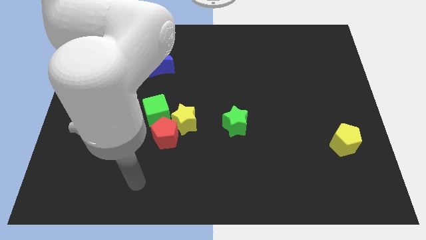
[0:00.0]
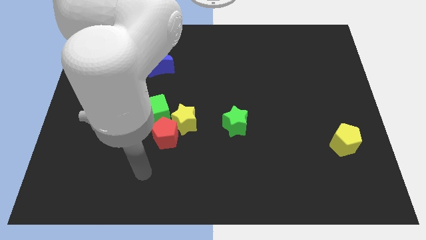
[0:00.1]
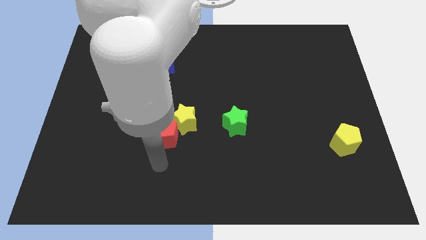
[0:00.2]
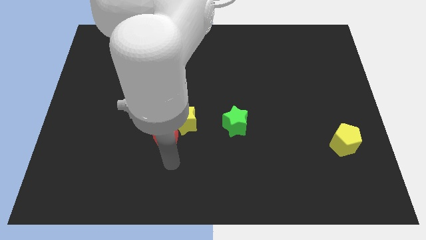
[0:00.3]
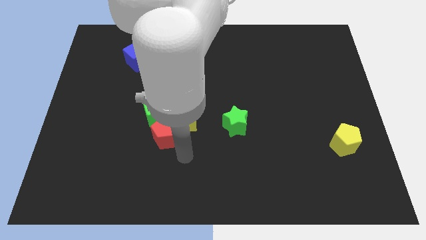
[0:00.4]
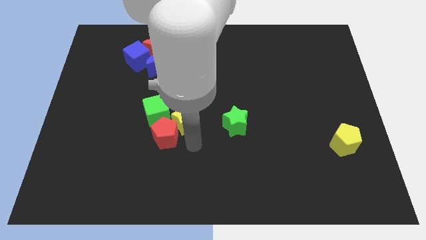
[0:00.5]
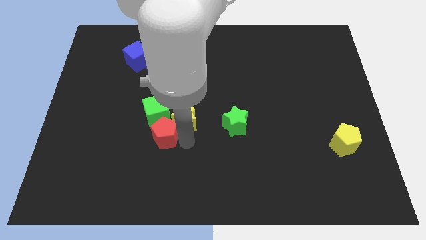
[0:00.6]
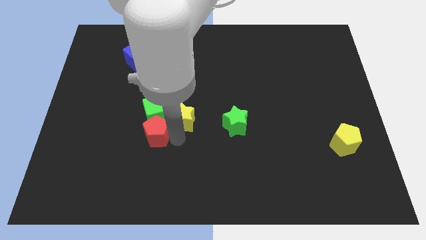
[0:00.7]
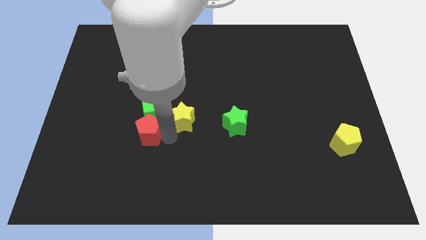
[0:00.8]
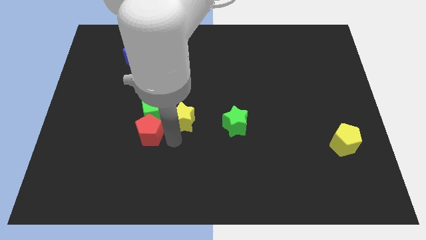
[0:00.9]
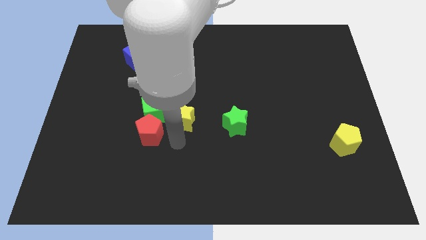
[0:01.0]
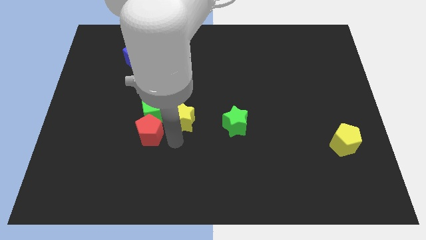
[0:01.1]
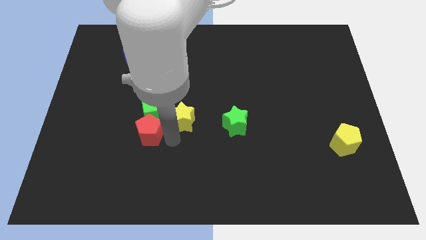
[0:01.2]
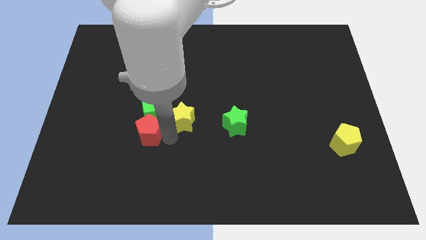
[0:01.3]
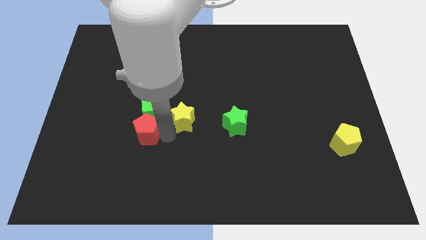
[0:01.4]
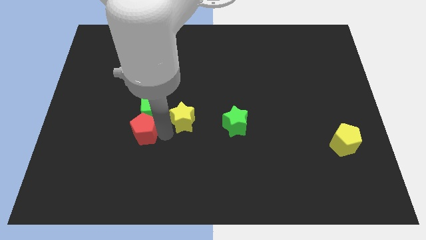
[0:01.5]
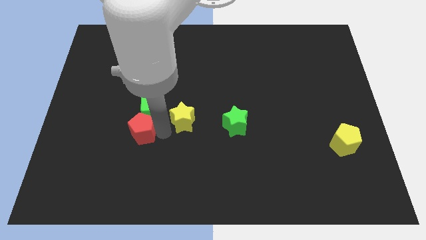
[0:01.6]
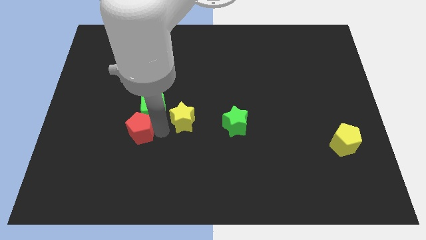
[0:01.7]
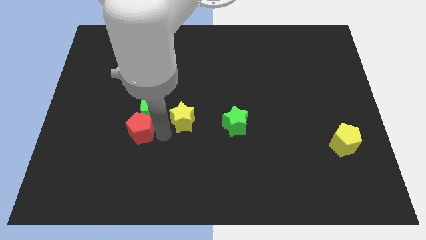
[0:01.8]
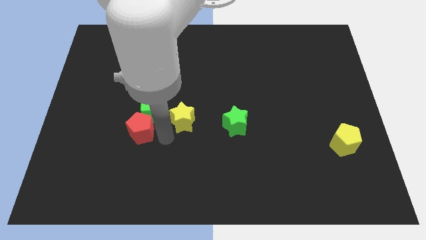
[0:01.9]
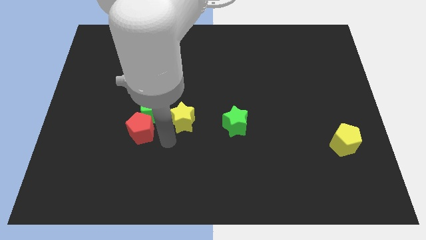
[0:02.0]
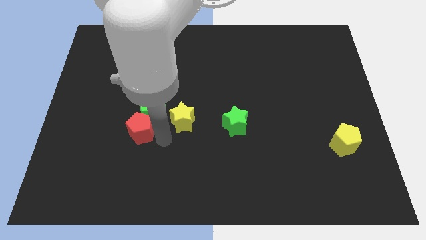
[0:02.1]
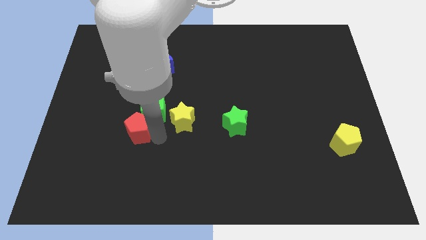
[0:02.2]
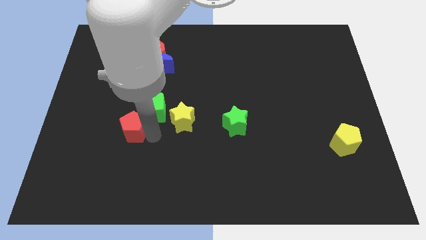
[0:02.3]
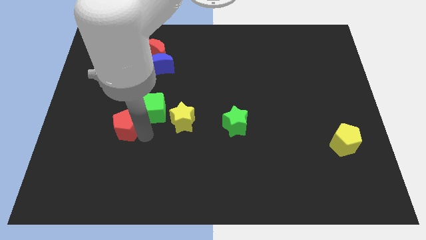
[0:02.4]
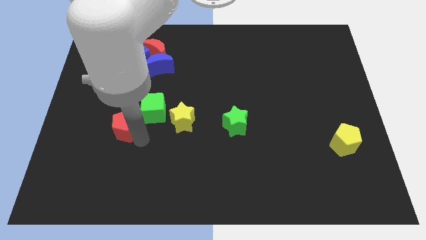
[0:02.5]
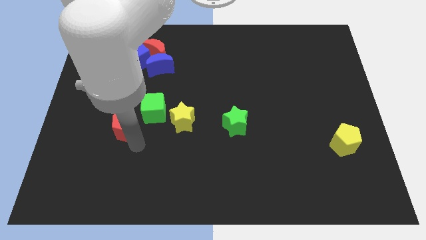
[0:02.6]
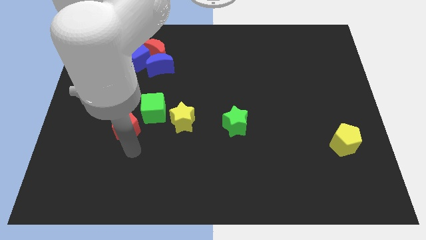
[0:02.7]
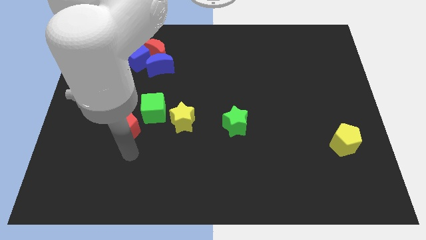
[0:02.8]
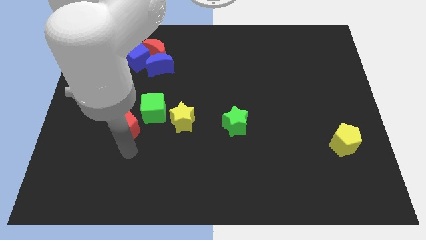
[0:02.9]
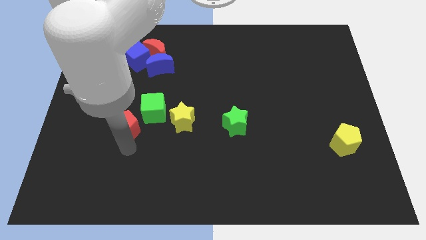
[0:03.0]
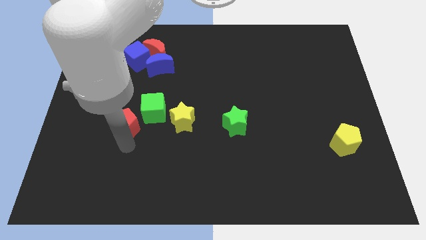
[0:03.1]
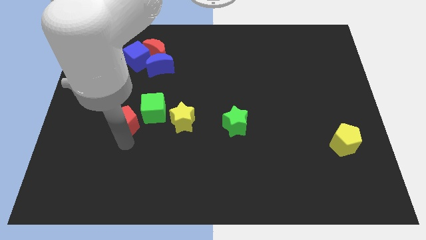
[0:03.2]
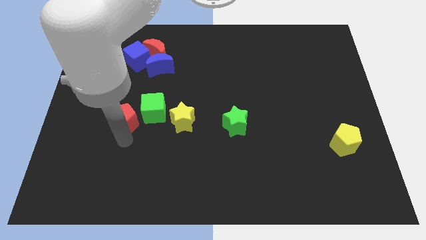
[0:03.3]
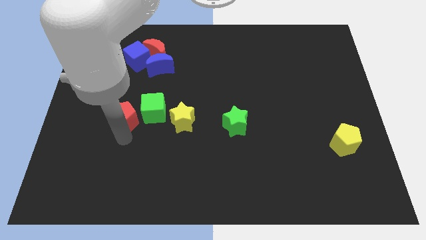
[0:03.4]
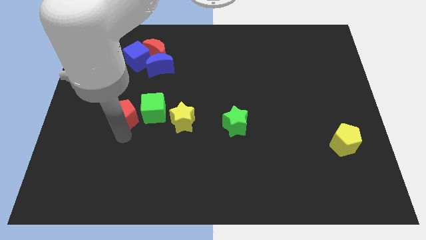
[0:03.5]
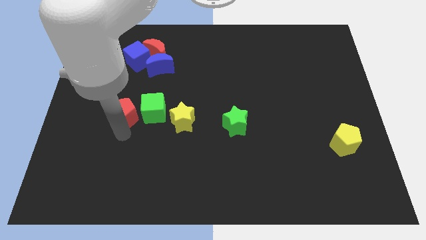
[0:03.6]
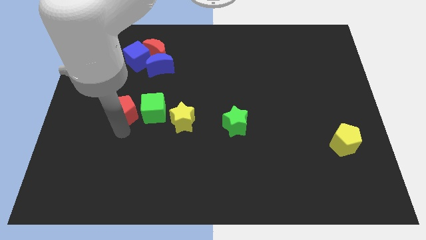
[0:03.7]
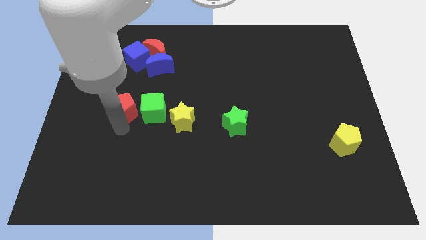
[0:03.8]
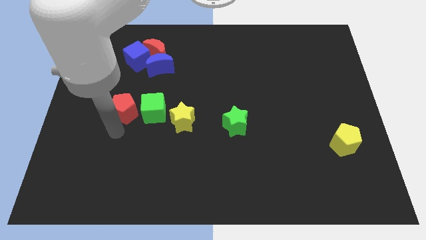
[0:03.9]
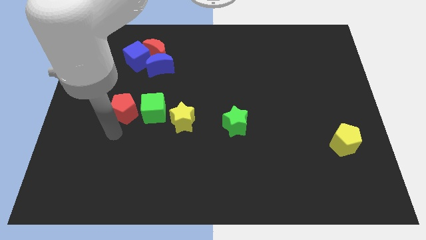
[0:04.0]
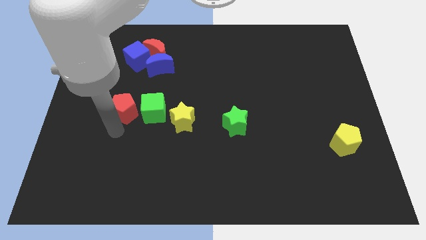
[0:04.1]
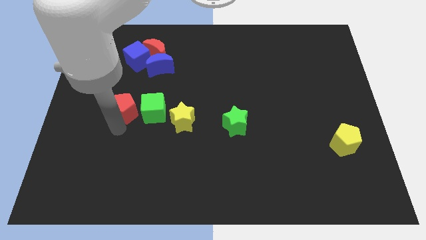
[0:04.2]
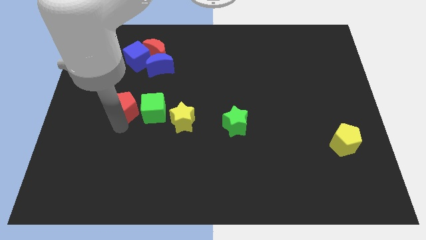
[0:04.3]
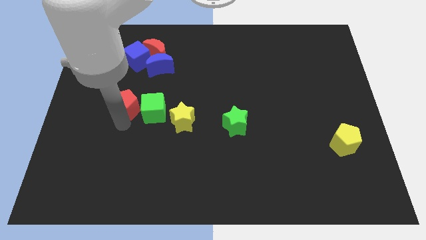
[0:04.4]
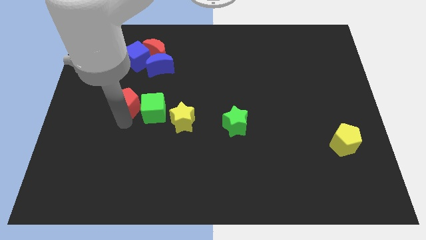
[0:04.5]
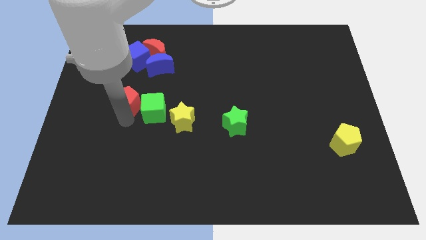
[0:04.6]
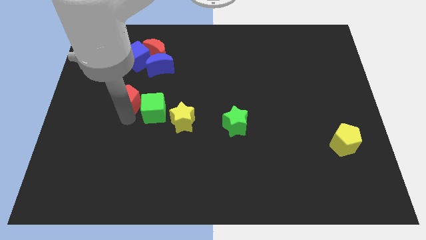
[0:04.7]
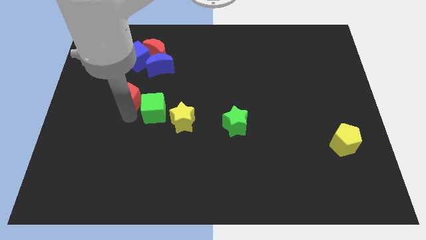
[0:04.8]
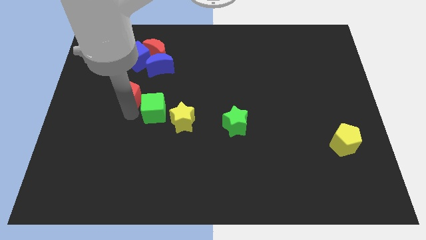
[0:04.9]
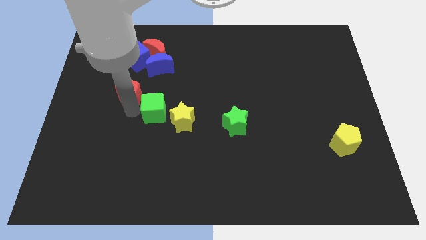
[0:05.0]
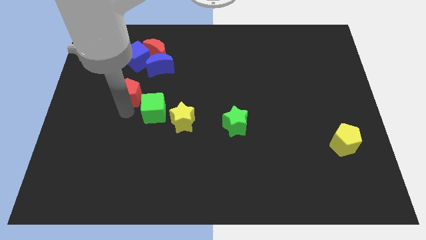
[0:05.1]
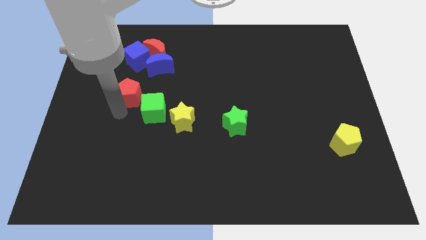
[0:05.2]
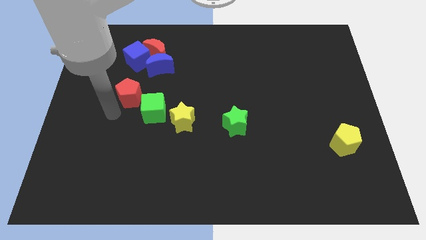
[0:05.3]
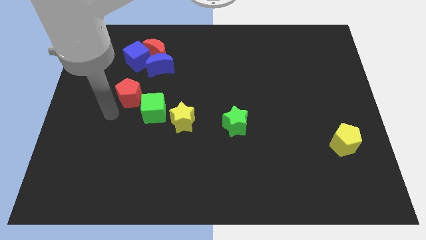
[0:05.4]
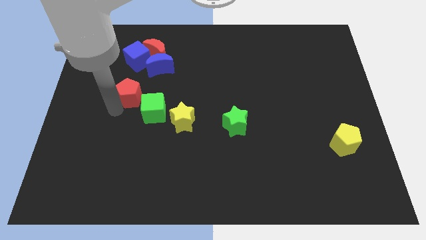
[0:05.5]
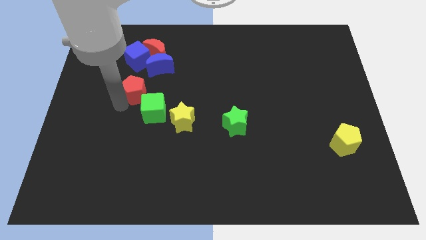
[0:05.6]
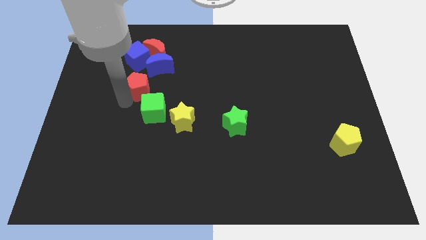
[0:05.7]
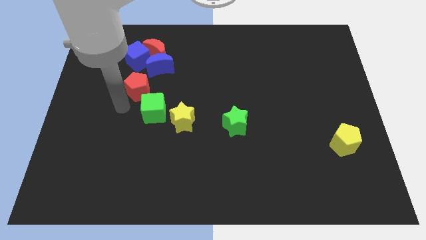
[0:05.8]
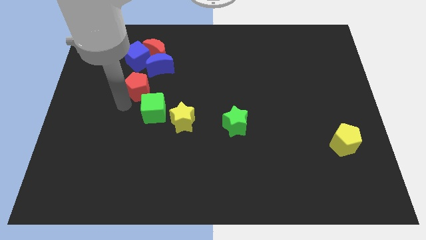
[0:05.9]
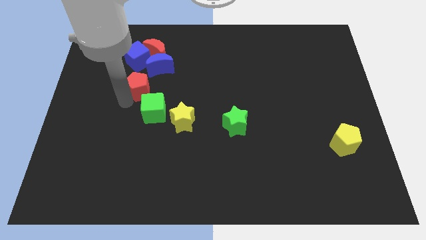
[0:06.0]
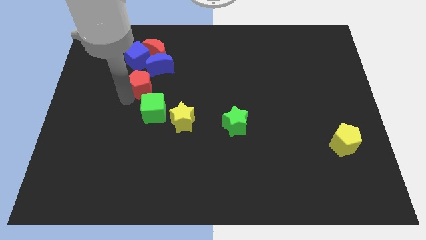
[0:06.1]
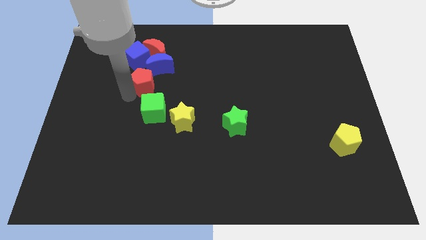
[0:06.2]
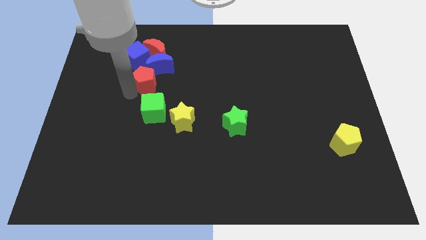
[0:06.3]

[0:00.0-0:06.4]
slide the red pentagon close to the blue moon

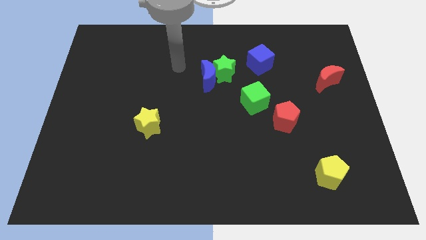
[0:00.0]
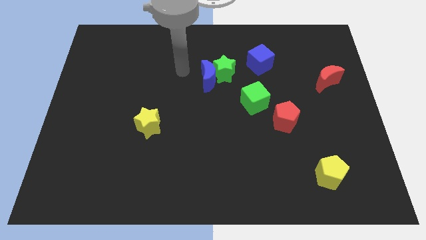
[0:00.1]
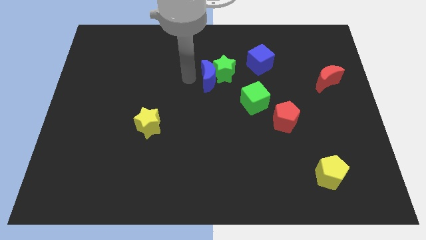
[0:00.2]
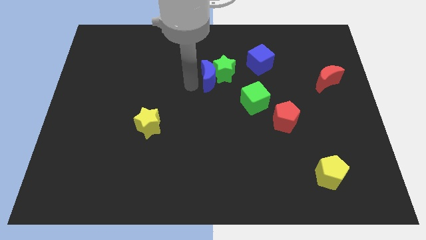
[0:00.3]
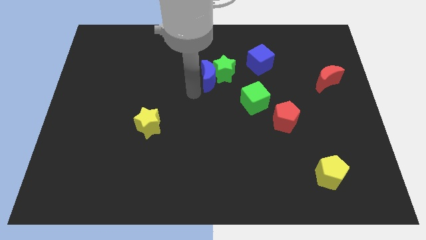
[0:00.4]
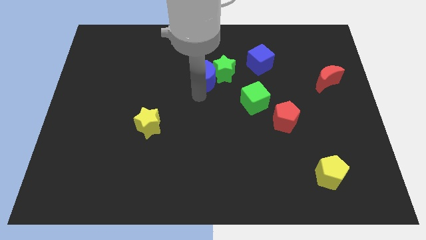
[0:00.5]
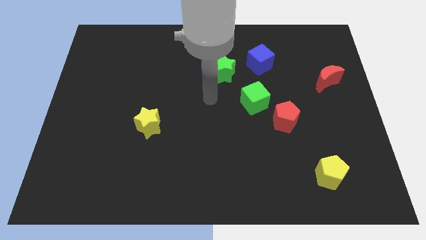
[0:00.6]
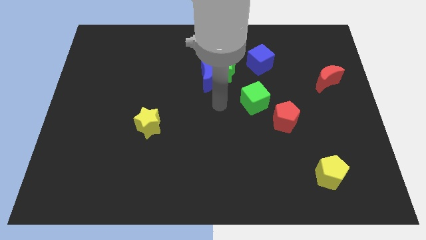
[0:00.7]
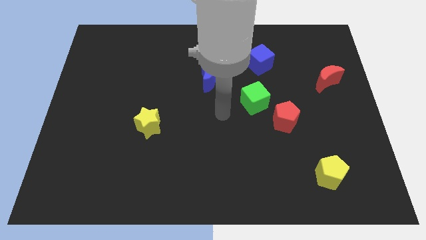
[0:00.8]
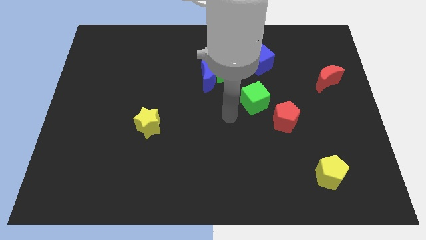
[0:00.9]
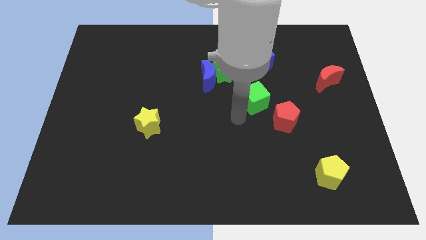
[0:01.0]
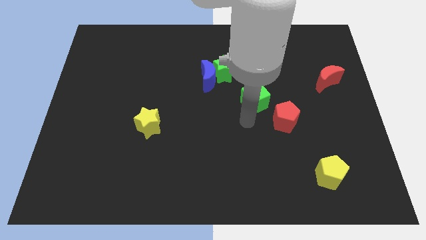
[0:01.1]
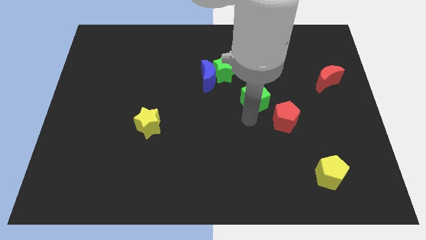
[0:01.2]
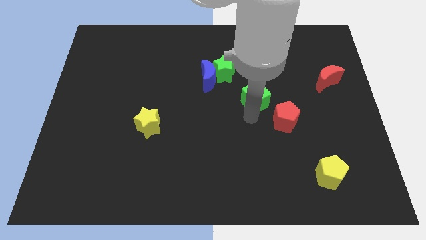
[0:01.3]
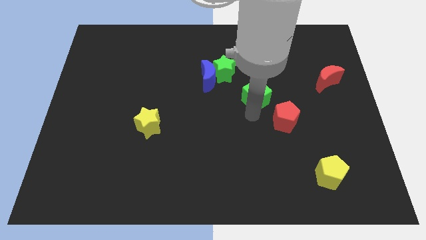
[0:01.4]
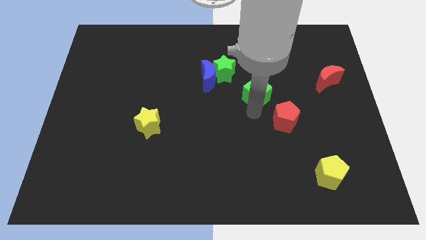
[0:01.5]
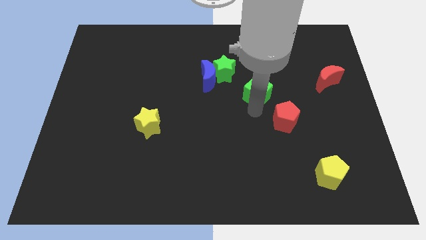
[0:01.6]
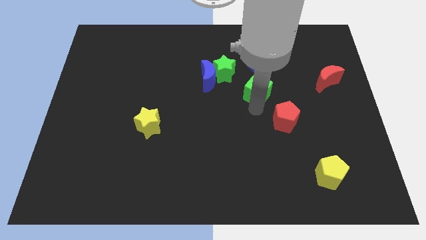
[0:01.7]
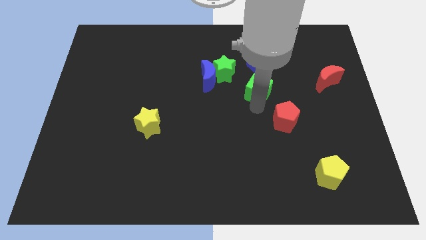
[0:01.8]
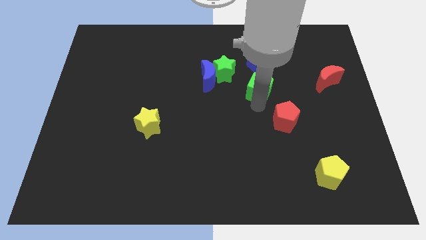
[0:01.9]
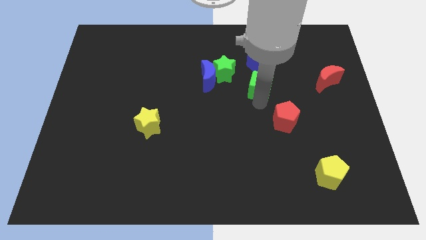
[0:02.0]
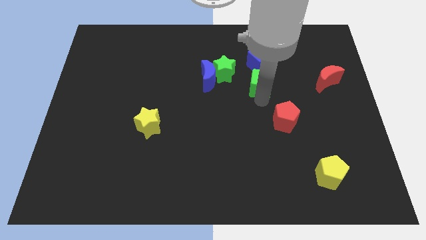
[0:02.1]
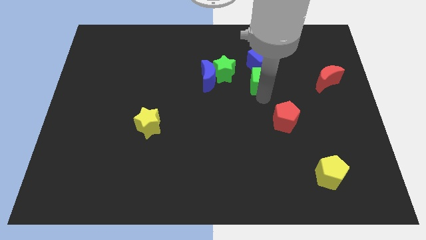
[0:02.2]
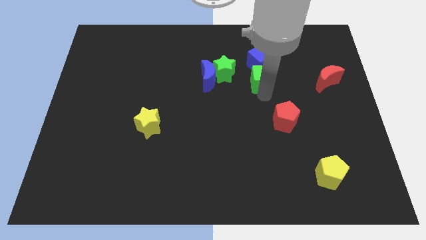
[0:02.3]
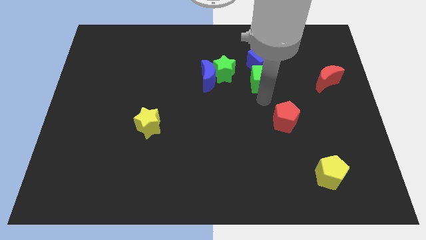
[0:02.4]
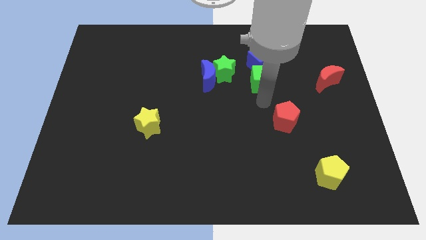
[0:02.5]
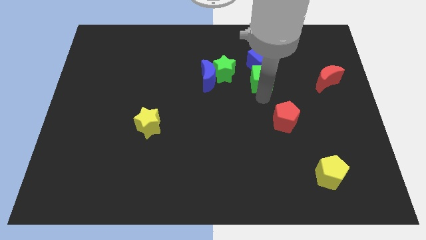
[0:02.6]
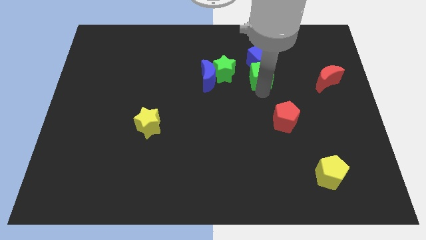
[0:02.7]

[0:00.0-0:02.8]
move the green cube close to the blue cube
